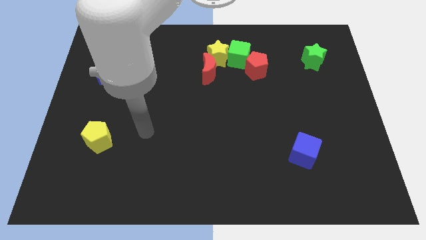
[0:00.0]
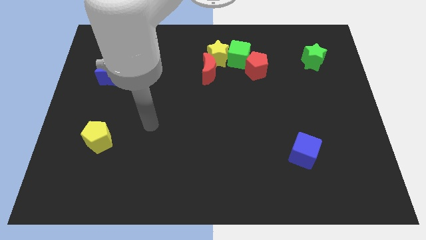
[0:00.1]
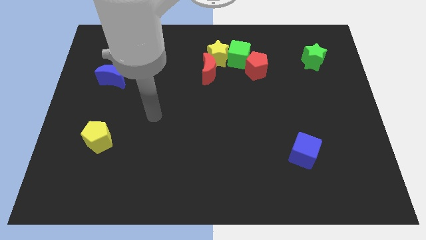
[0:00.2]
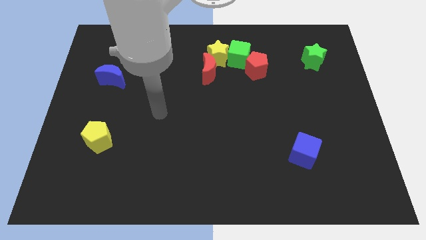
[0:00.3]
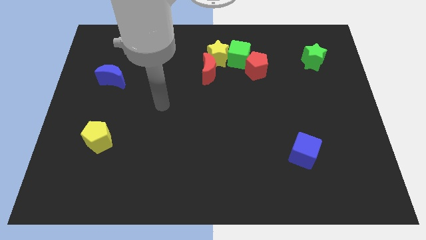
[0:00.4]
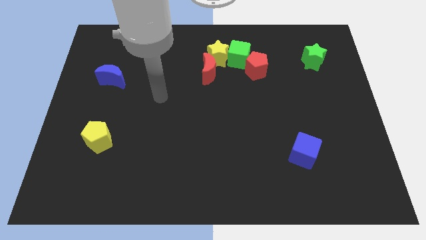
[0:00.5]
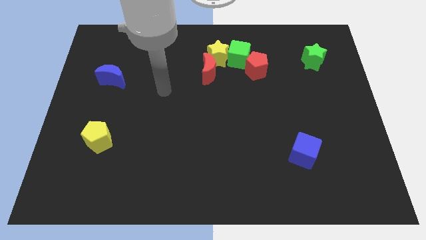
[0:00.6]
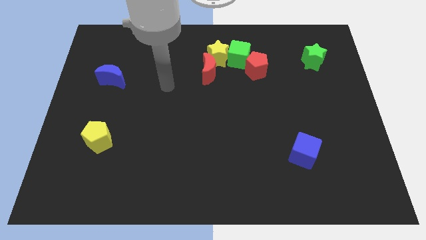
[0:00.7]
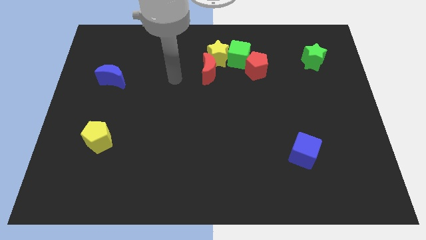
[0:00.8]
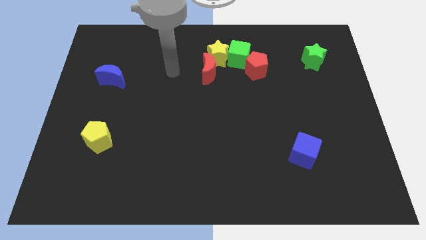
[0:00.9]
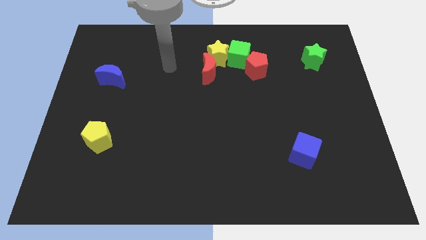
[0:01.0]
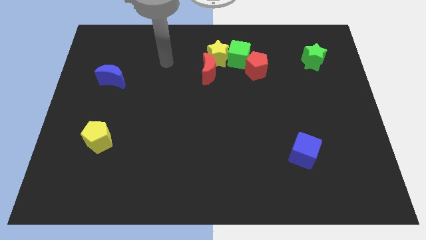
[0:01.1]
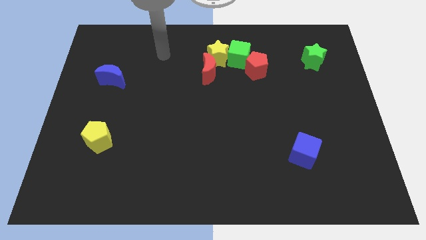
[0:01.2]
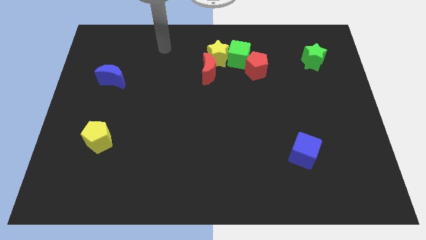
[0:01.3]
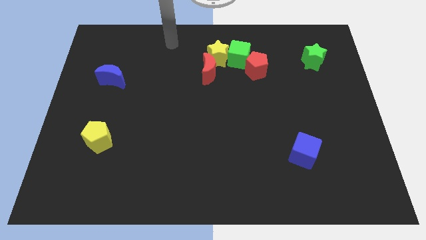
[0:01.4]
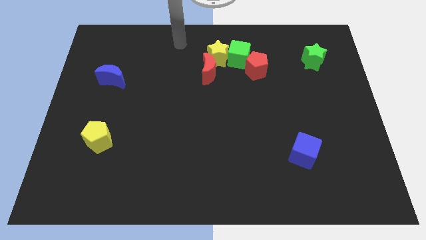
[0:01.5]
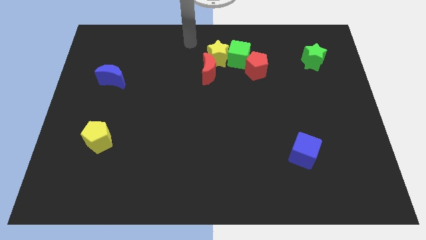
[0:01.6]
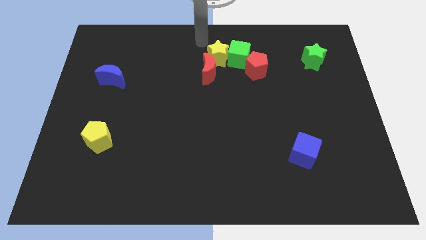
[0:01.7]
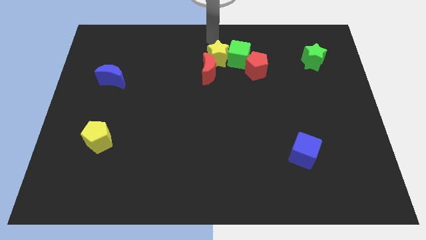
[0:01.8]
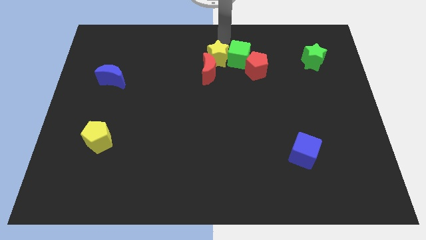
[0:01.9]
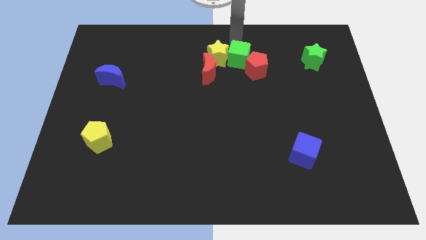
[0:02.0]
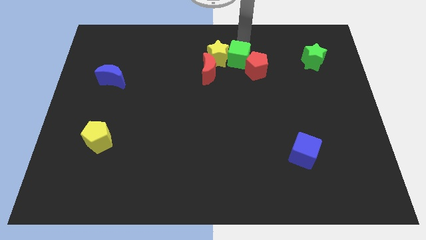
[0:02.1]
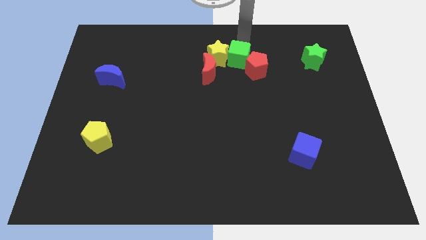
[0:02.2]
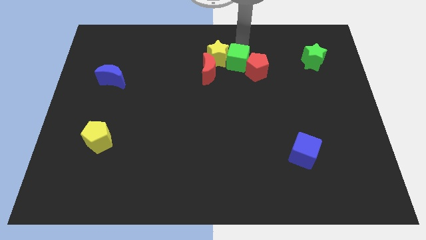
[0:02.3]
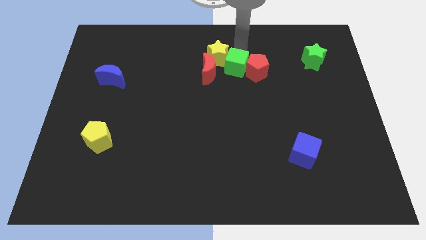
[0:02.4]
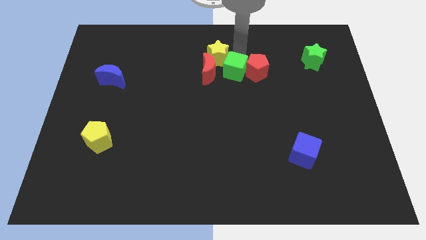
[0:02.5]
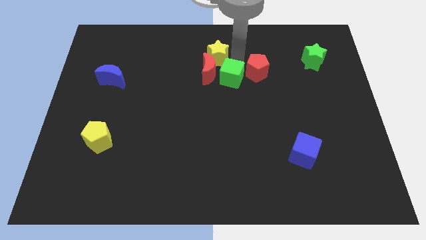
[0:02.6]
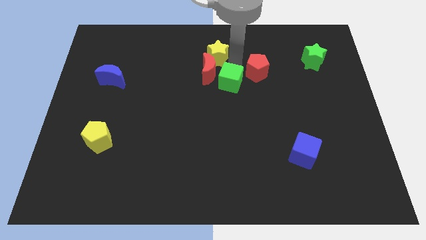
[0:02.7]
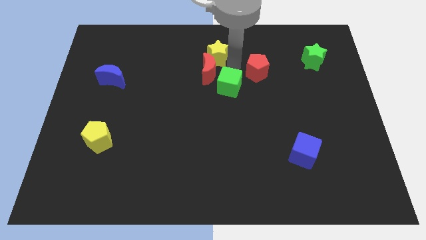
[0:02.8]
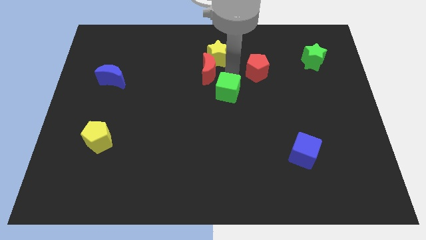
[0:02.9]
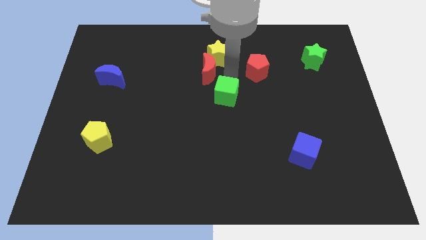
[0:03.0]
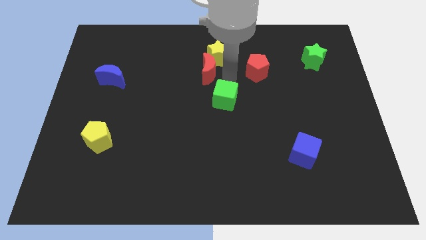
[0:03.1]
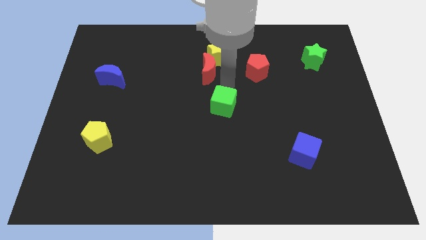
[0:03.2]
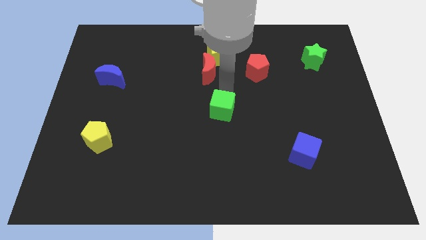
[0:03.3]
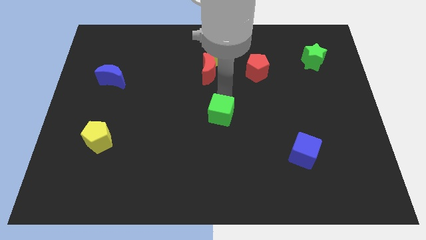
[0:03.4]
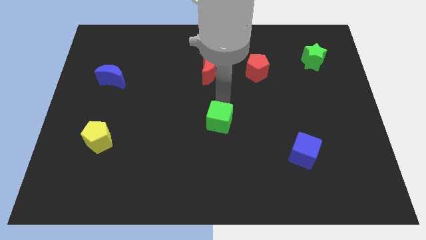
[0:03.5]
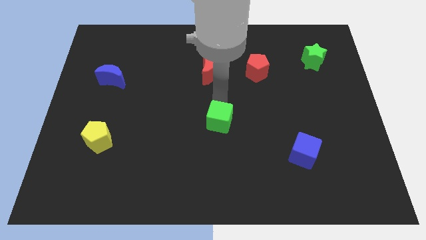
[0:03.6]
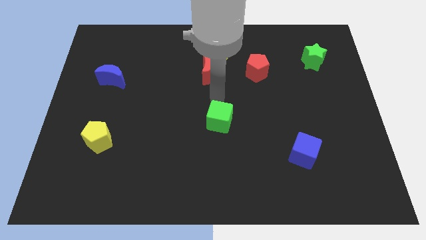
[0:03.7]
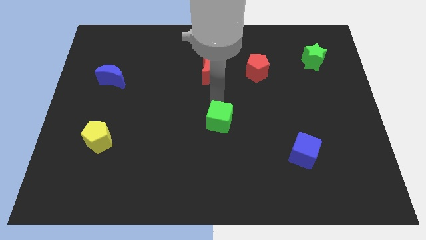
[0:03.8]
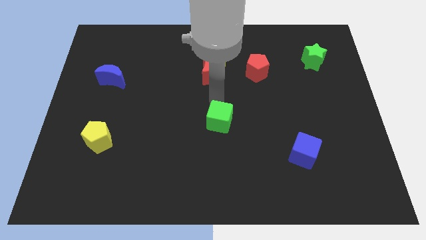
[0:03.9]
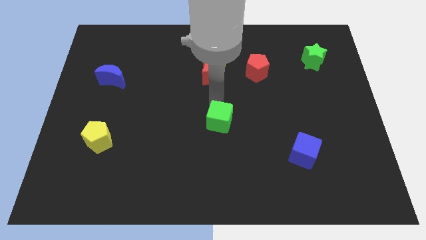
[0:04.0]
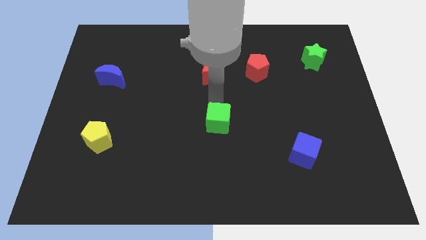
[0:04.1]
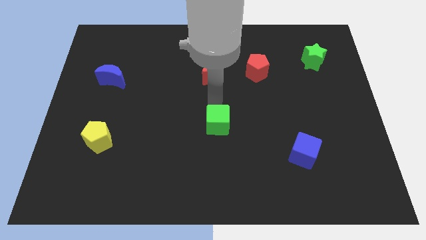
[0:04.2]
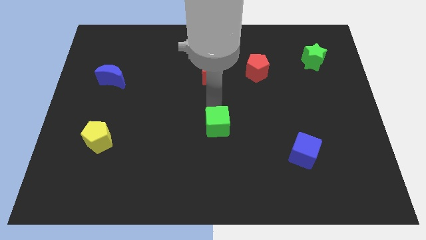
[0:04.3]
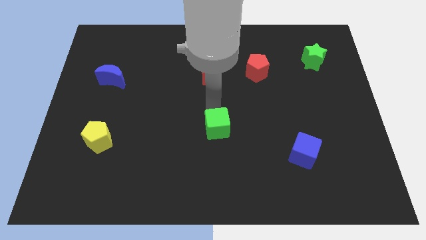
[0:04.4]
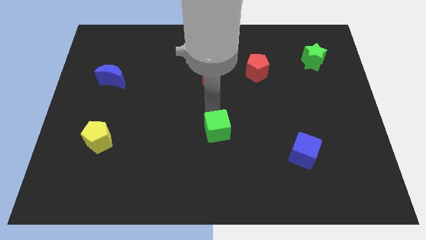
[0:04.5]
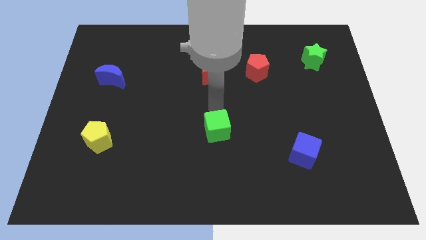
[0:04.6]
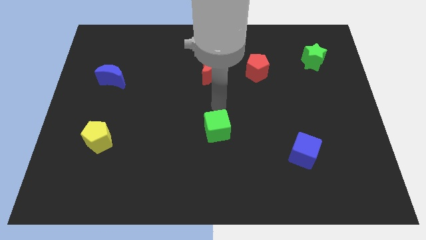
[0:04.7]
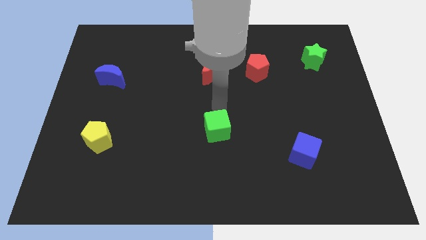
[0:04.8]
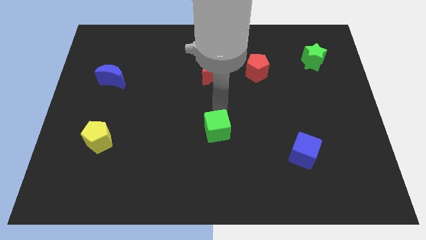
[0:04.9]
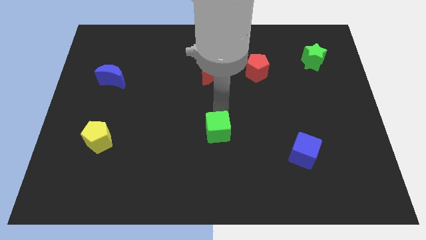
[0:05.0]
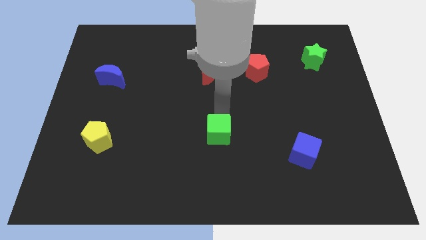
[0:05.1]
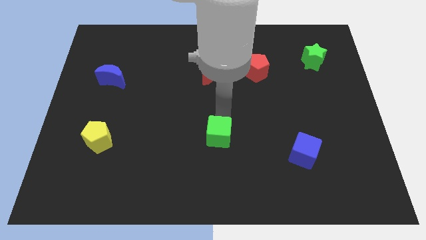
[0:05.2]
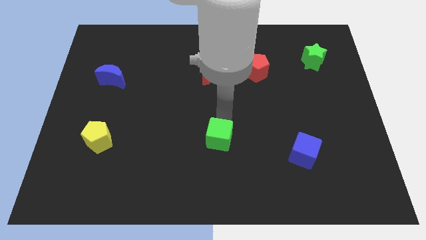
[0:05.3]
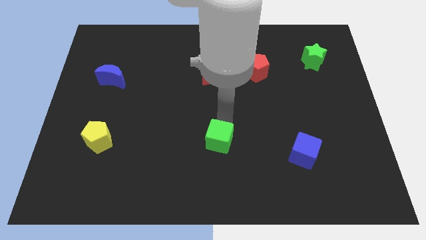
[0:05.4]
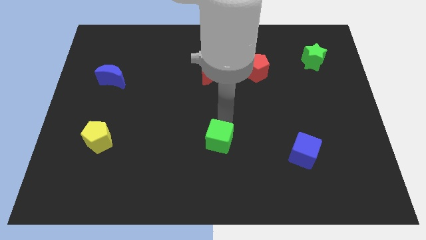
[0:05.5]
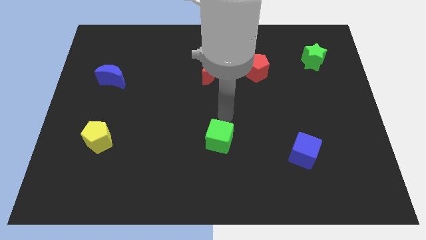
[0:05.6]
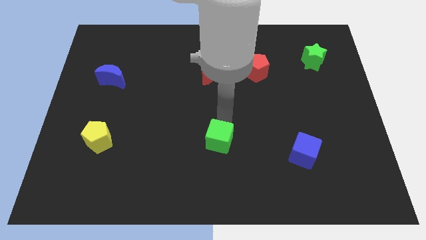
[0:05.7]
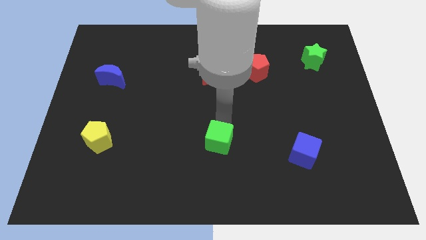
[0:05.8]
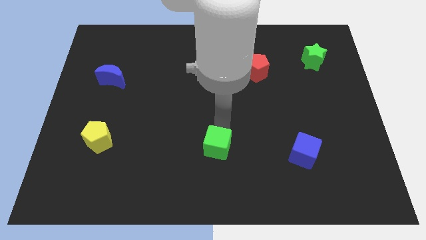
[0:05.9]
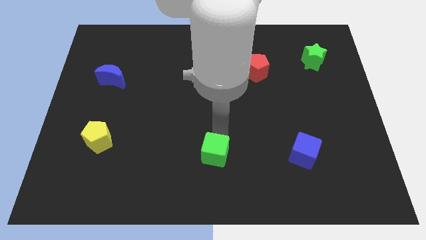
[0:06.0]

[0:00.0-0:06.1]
push the green cube to the bottom

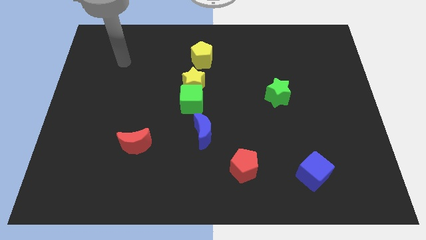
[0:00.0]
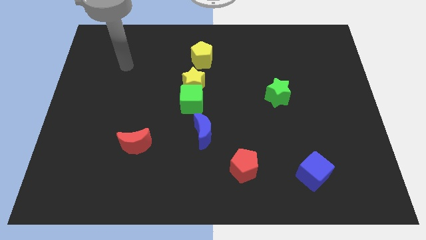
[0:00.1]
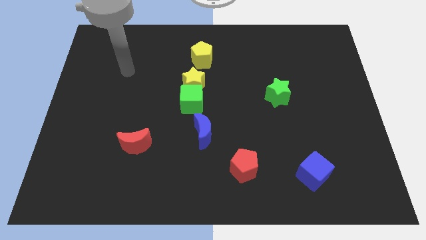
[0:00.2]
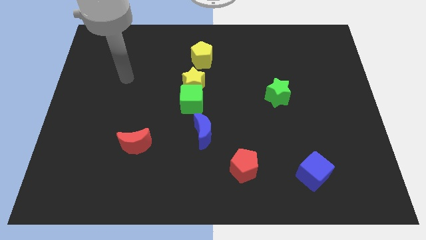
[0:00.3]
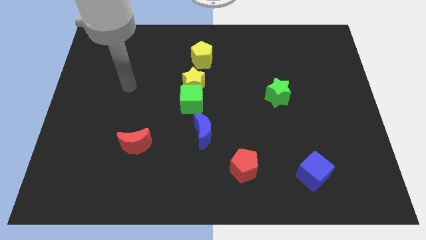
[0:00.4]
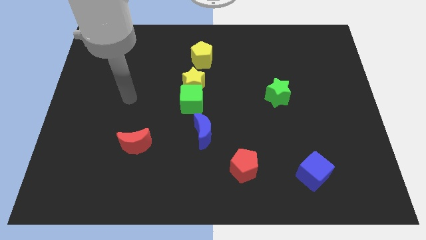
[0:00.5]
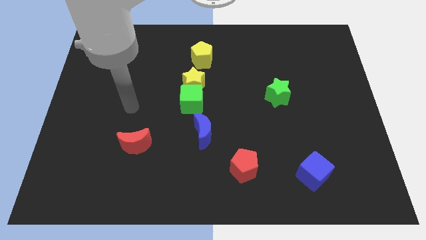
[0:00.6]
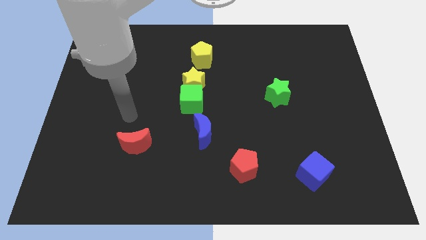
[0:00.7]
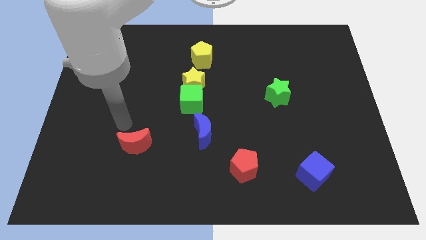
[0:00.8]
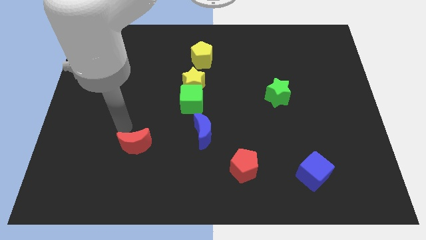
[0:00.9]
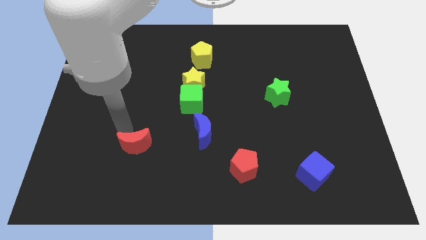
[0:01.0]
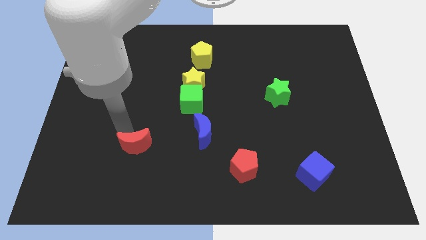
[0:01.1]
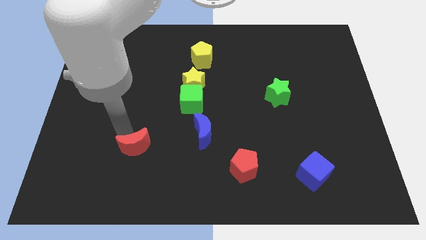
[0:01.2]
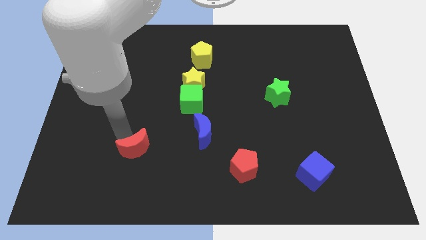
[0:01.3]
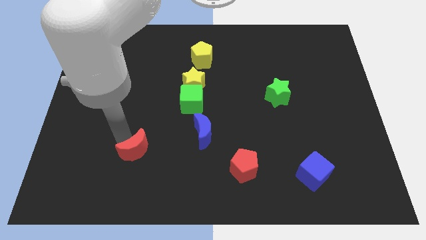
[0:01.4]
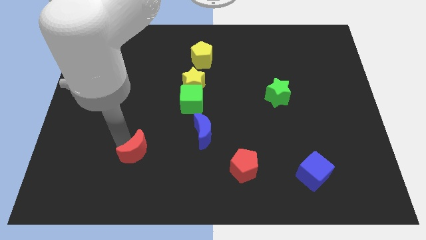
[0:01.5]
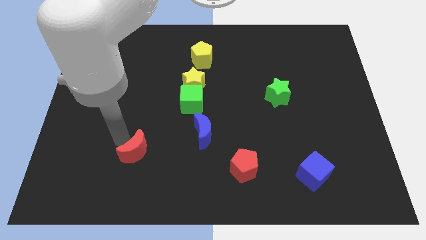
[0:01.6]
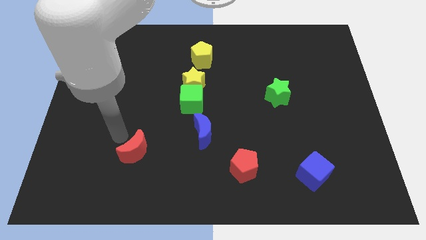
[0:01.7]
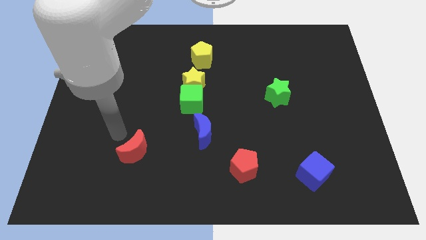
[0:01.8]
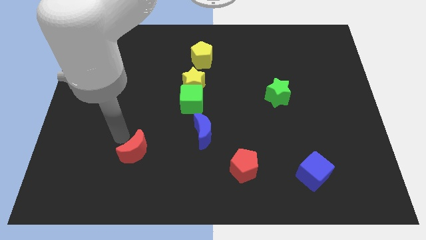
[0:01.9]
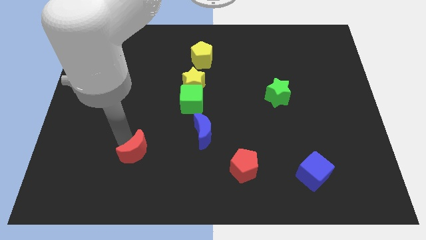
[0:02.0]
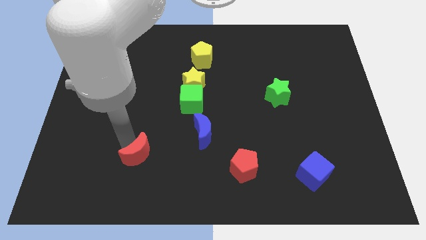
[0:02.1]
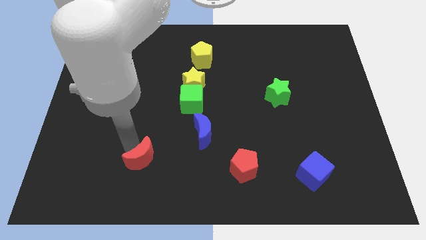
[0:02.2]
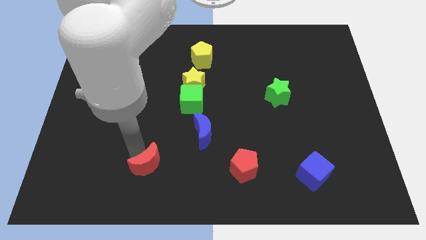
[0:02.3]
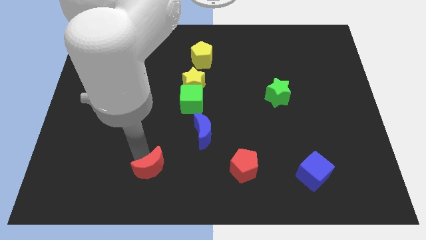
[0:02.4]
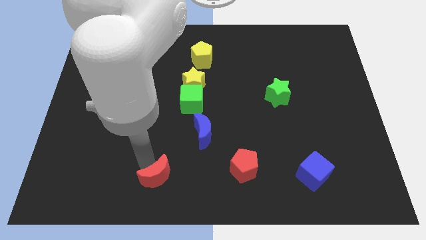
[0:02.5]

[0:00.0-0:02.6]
put the red moon to the bottom side
